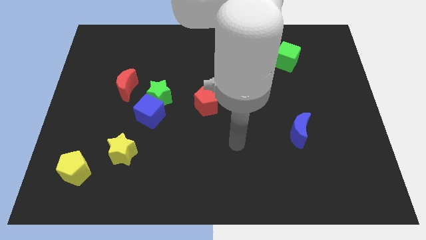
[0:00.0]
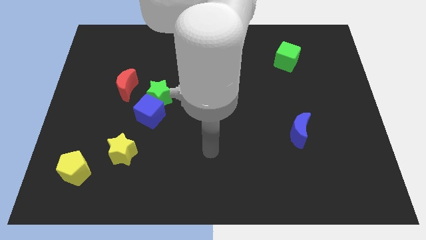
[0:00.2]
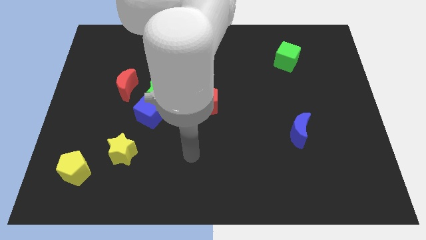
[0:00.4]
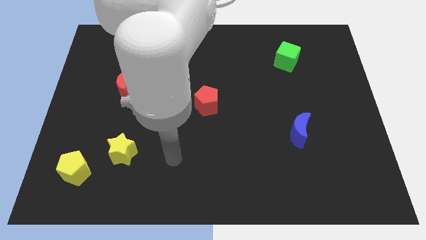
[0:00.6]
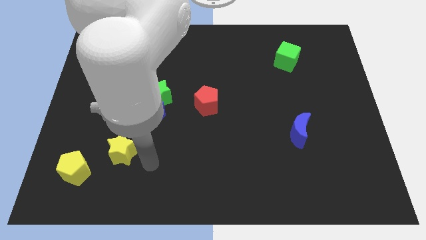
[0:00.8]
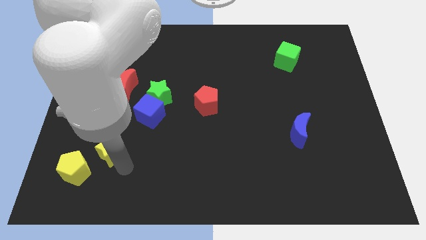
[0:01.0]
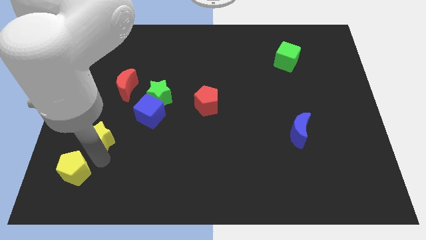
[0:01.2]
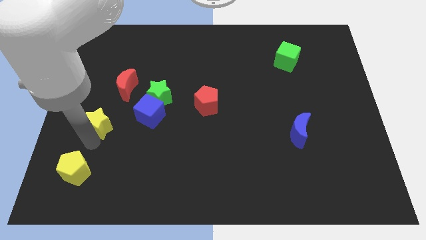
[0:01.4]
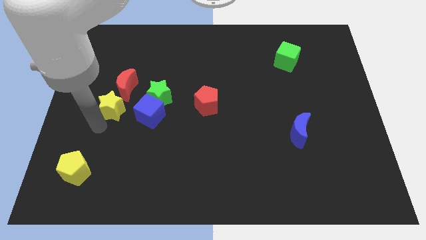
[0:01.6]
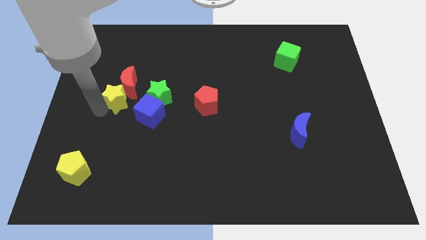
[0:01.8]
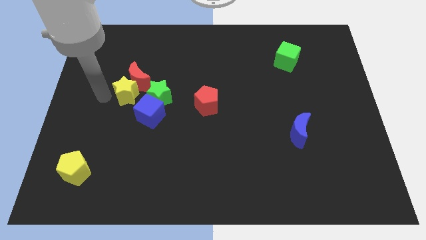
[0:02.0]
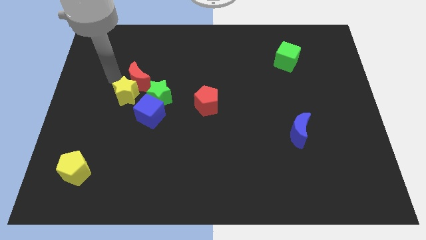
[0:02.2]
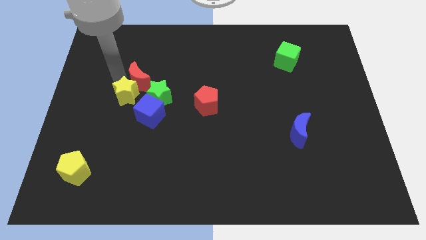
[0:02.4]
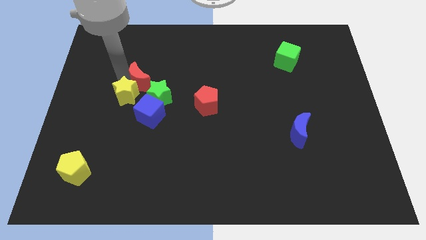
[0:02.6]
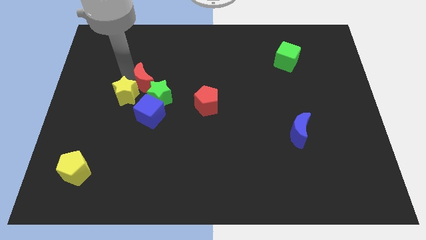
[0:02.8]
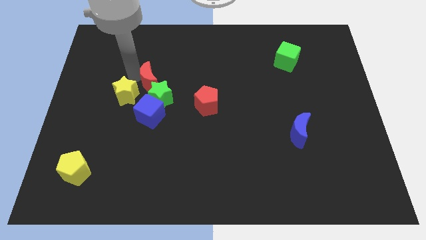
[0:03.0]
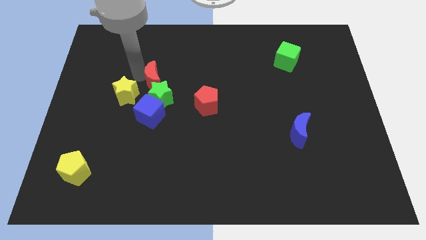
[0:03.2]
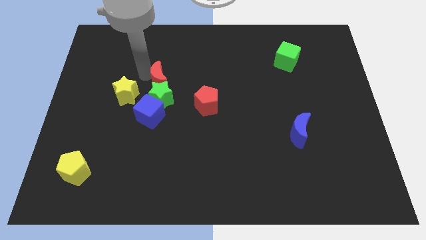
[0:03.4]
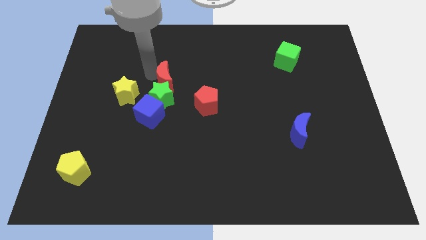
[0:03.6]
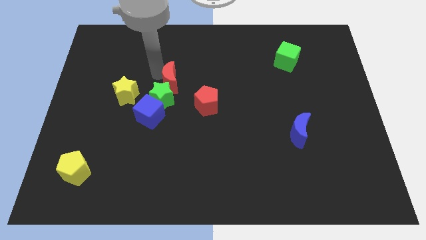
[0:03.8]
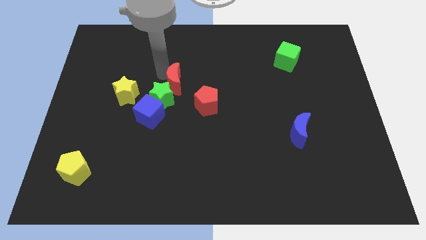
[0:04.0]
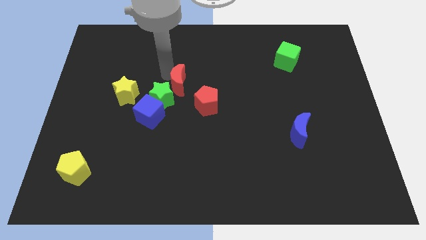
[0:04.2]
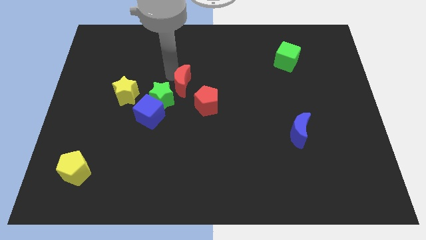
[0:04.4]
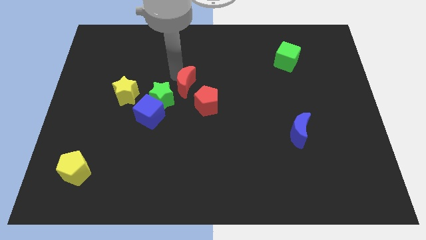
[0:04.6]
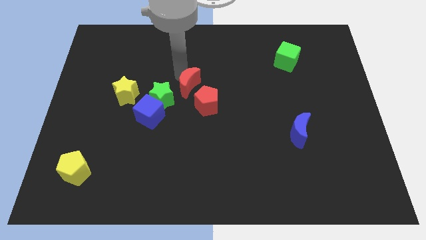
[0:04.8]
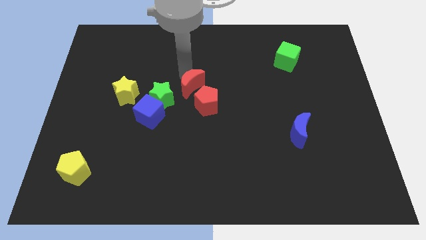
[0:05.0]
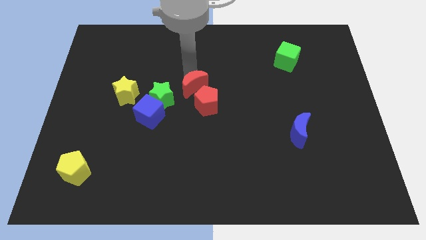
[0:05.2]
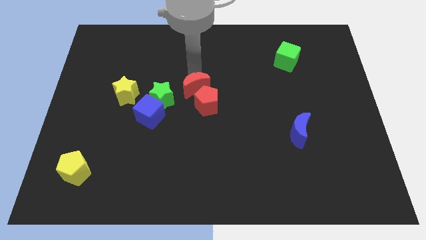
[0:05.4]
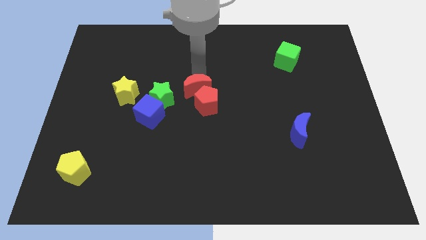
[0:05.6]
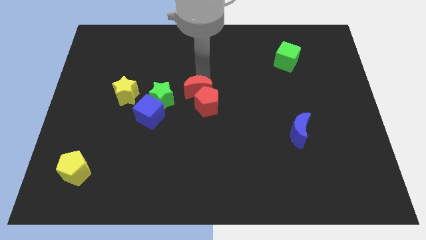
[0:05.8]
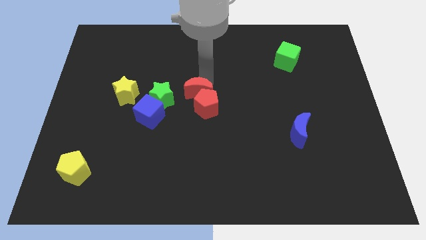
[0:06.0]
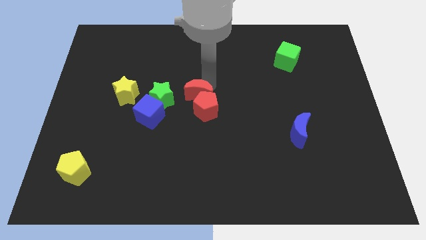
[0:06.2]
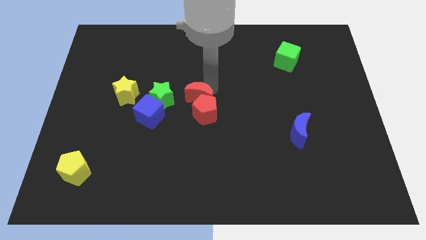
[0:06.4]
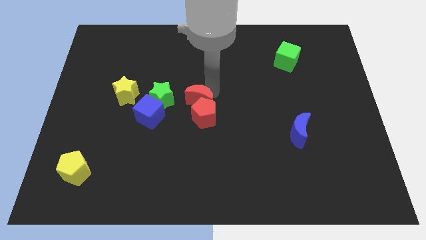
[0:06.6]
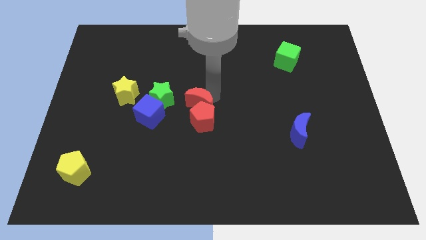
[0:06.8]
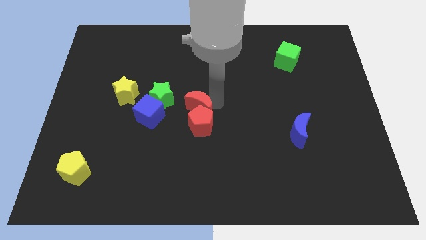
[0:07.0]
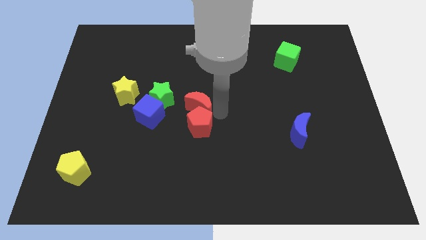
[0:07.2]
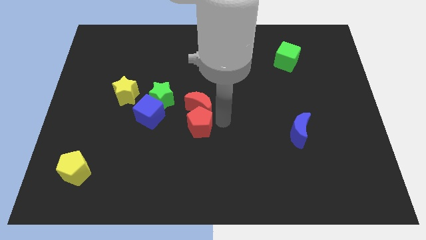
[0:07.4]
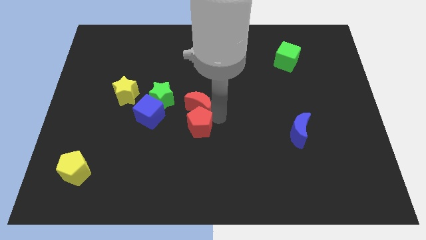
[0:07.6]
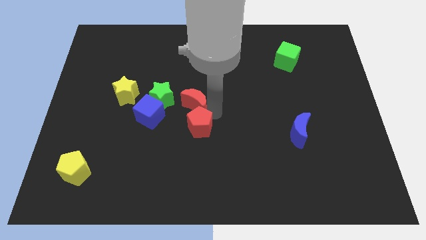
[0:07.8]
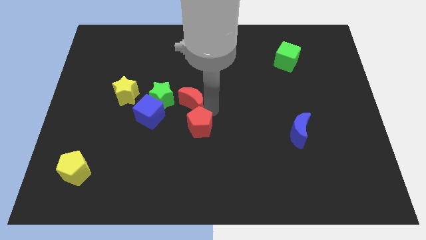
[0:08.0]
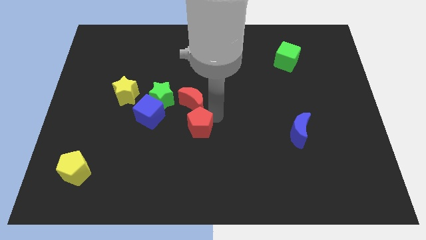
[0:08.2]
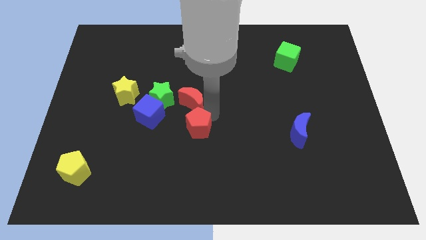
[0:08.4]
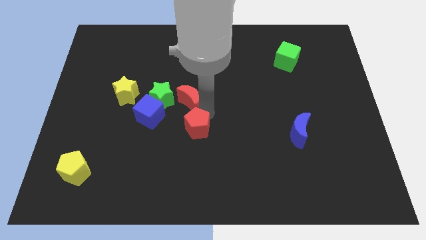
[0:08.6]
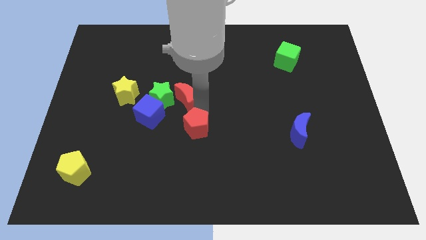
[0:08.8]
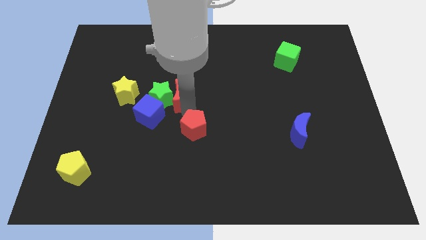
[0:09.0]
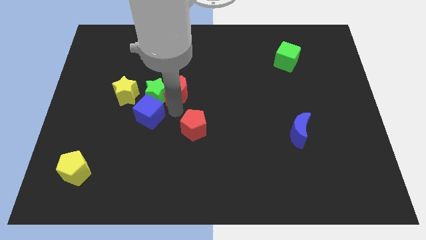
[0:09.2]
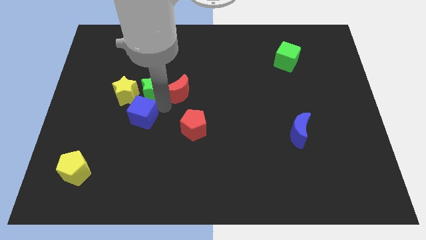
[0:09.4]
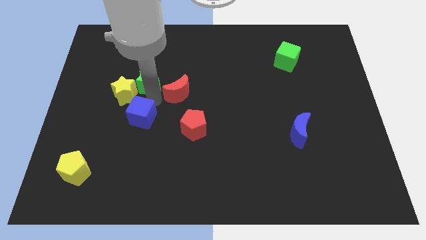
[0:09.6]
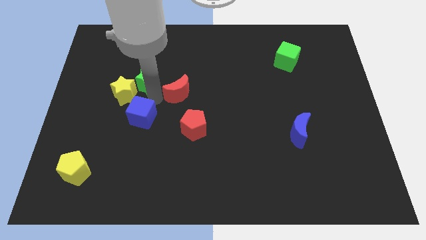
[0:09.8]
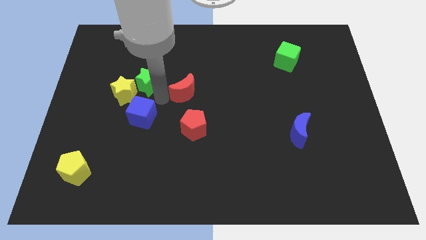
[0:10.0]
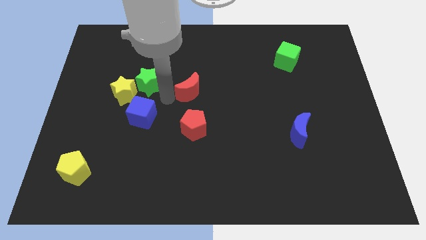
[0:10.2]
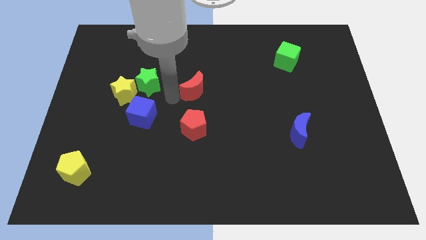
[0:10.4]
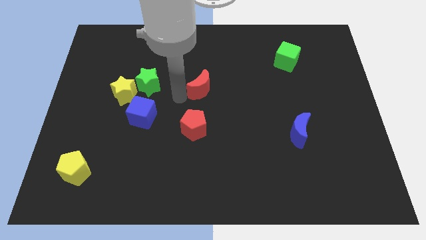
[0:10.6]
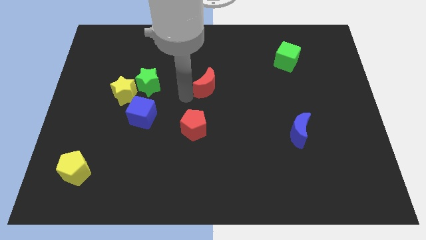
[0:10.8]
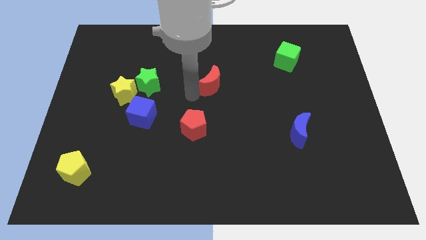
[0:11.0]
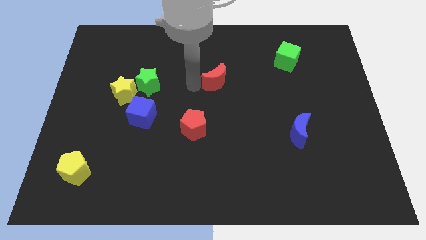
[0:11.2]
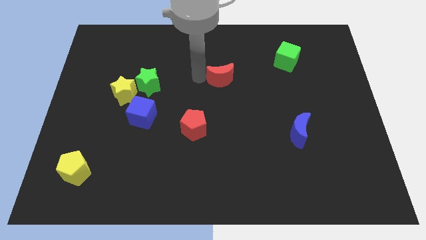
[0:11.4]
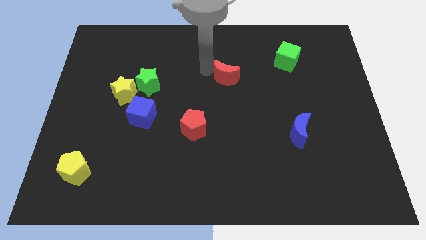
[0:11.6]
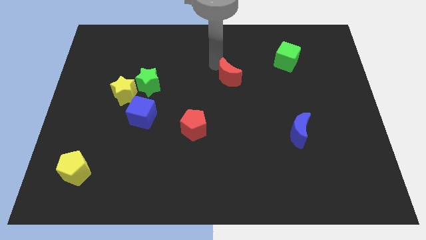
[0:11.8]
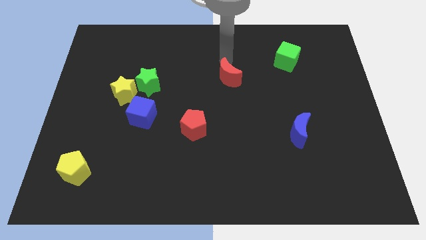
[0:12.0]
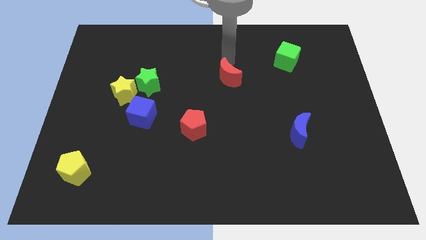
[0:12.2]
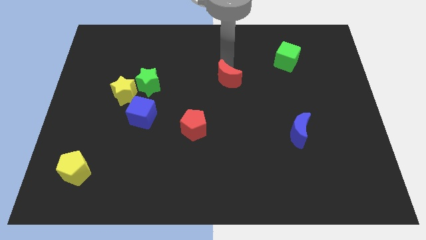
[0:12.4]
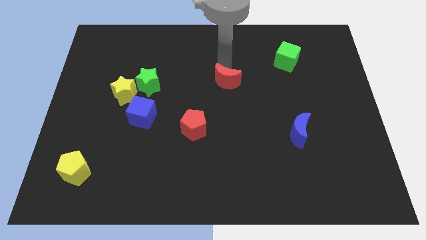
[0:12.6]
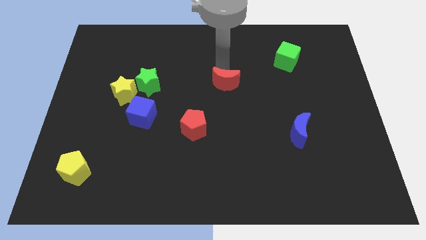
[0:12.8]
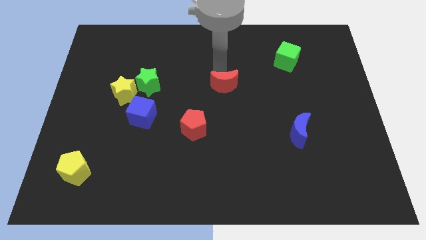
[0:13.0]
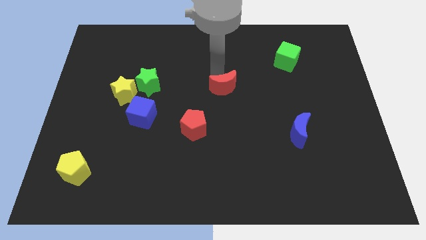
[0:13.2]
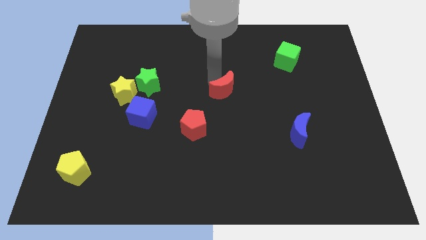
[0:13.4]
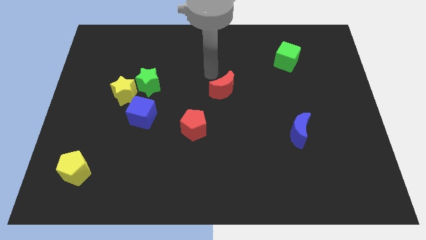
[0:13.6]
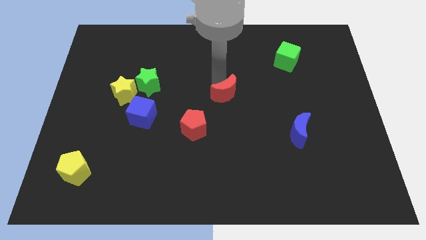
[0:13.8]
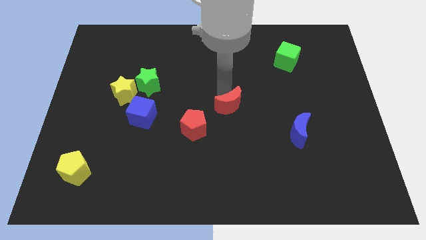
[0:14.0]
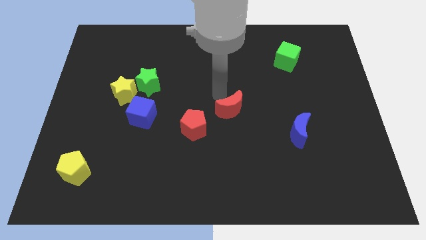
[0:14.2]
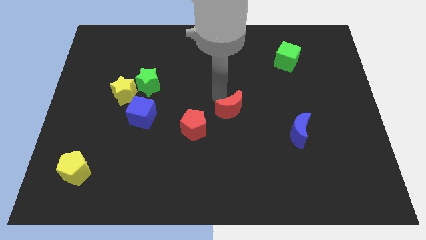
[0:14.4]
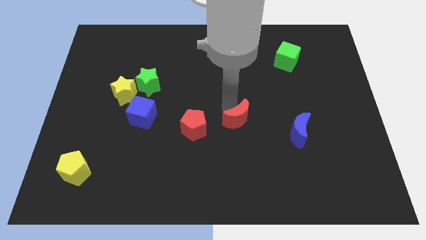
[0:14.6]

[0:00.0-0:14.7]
push the red moon left of the blue moon

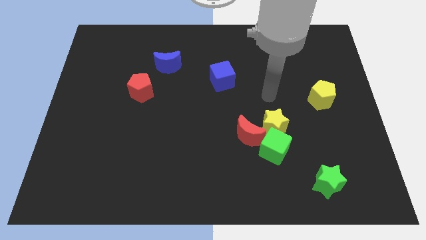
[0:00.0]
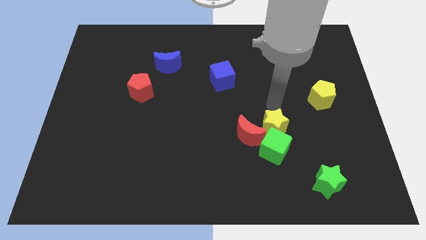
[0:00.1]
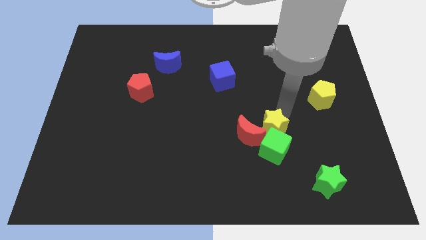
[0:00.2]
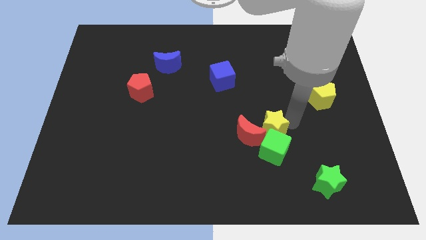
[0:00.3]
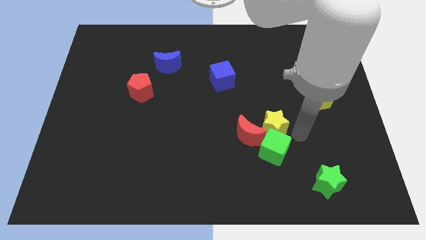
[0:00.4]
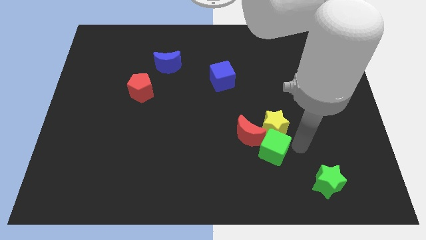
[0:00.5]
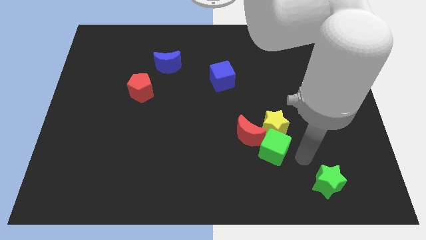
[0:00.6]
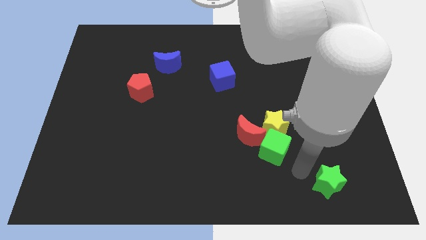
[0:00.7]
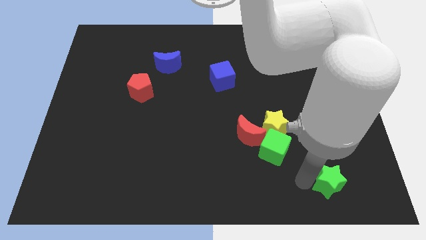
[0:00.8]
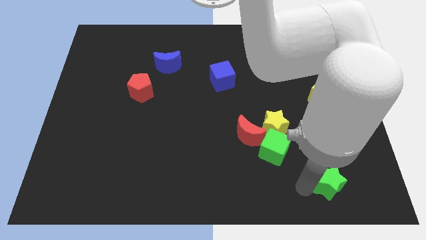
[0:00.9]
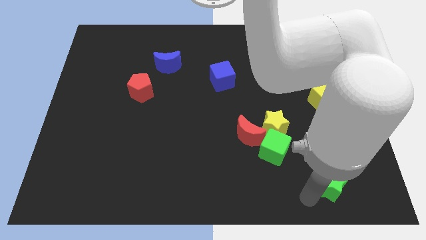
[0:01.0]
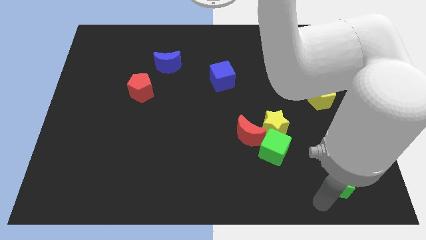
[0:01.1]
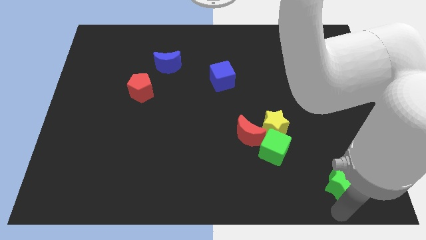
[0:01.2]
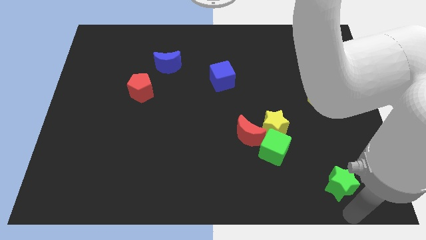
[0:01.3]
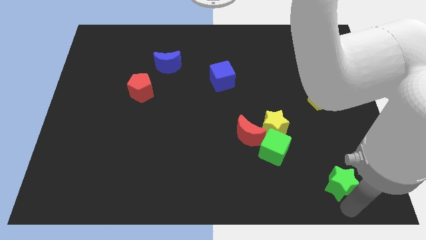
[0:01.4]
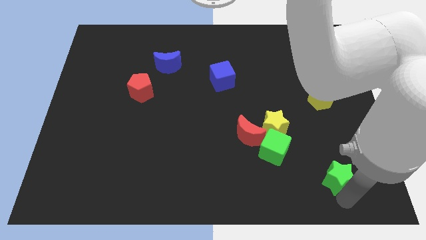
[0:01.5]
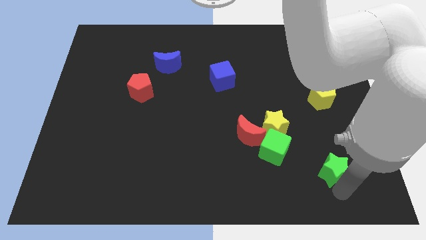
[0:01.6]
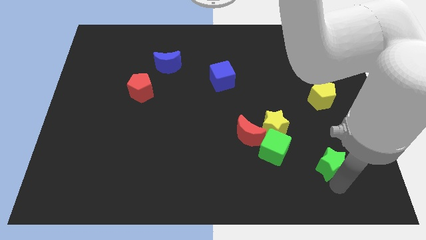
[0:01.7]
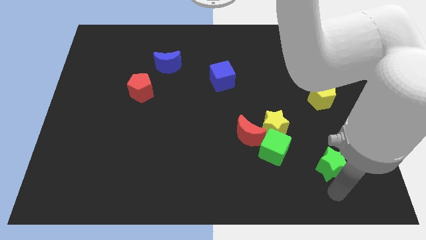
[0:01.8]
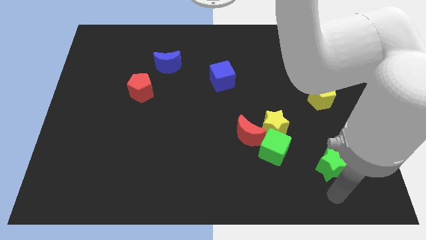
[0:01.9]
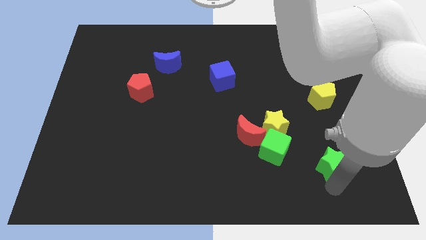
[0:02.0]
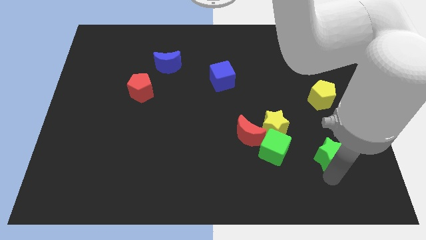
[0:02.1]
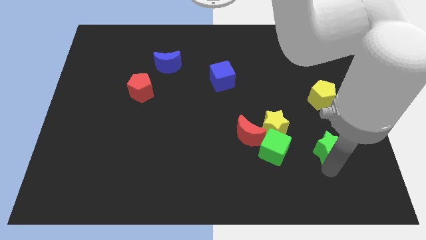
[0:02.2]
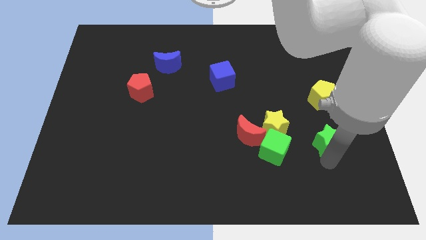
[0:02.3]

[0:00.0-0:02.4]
push the green star just right of the yellow star
